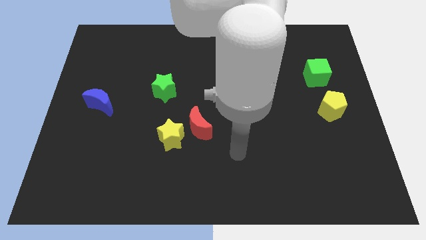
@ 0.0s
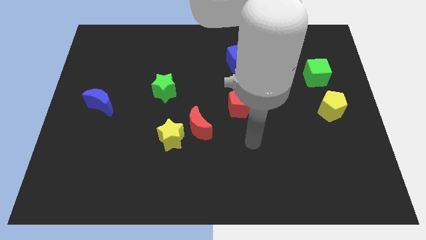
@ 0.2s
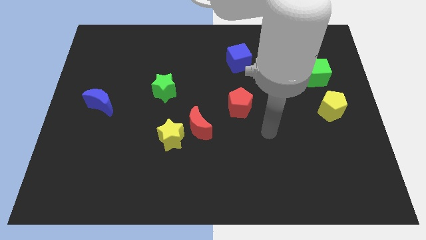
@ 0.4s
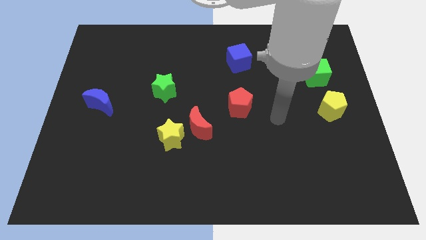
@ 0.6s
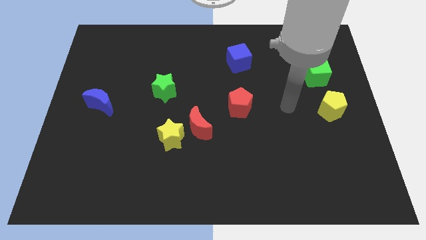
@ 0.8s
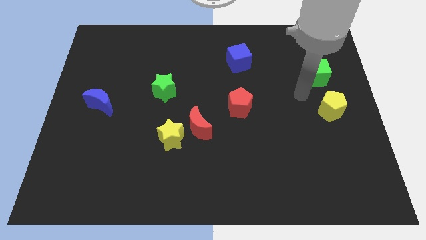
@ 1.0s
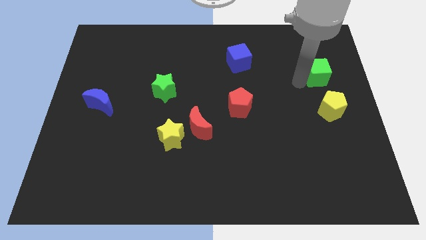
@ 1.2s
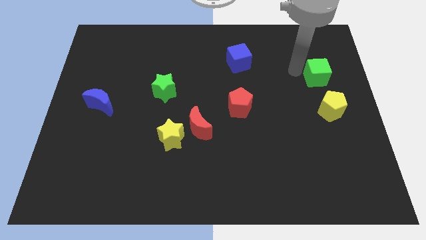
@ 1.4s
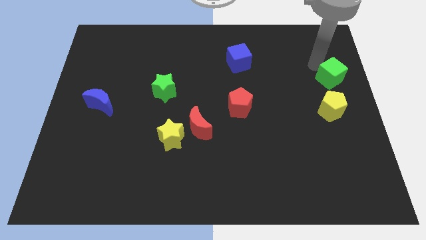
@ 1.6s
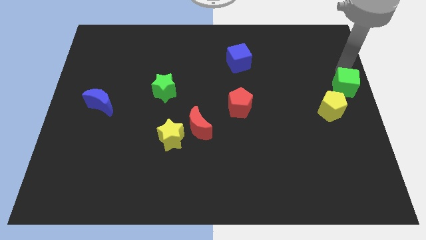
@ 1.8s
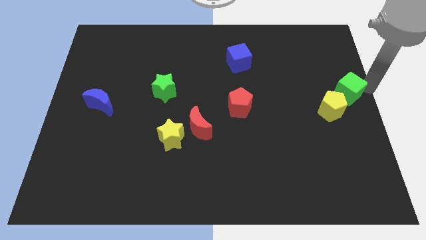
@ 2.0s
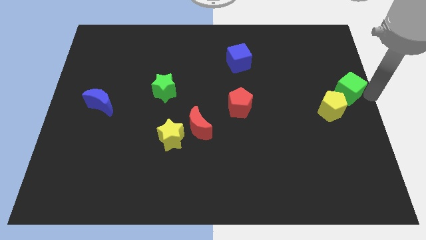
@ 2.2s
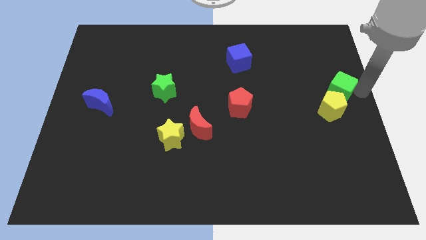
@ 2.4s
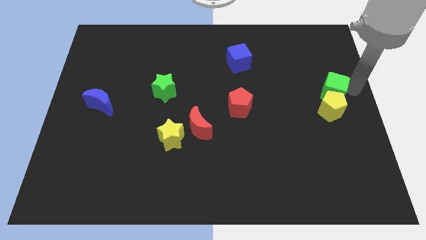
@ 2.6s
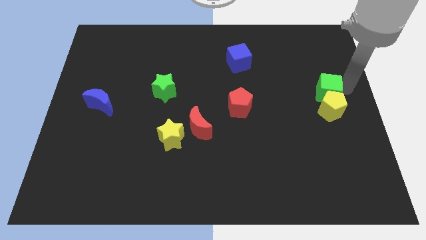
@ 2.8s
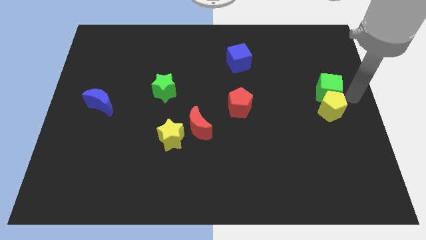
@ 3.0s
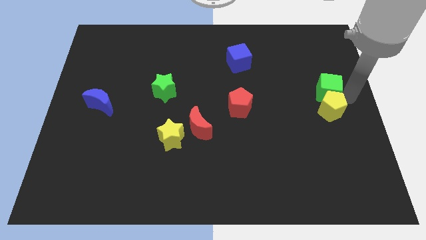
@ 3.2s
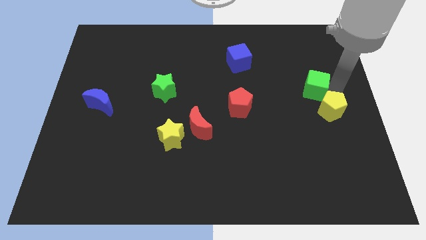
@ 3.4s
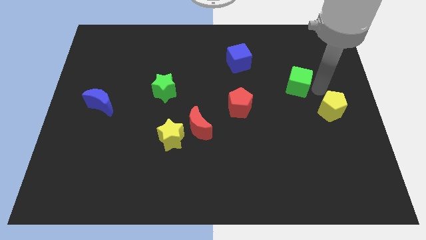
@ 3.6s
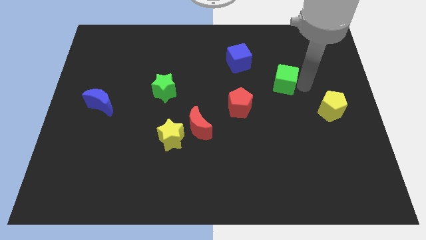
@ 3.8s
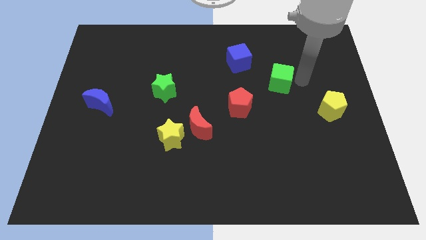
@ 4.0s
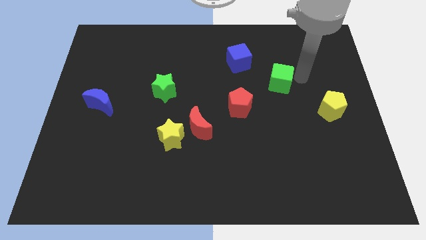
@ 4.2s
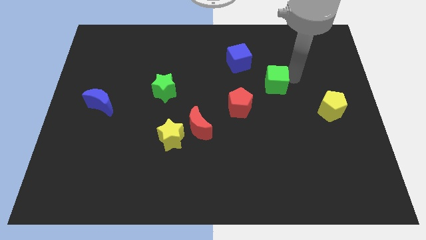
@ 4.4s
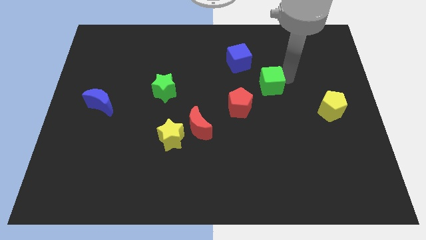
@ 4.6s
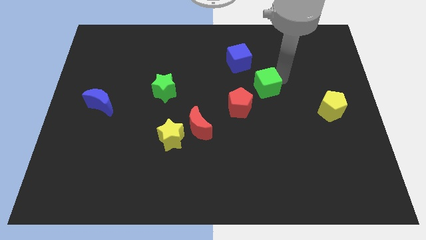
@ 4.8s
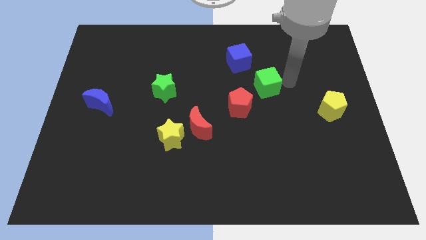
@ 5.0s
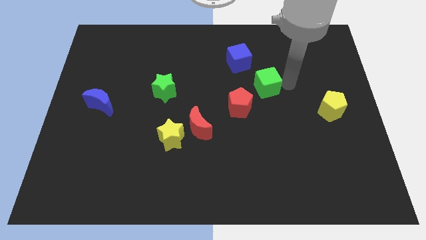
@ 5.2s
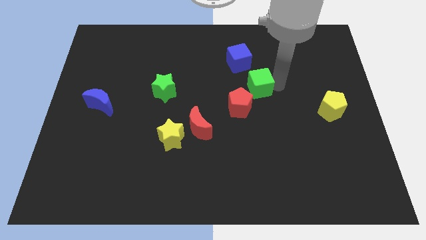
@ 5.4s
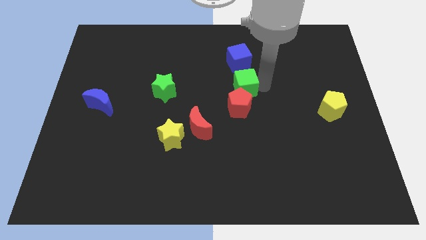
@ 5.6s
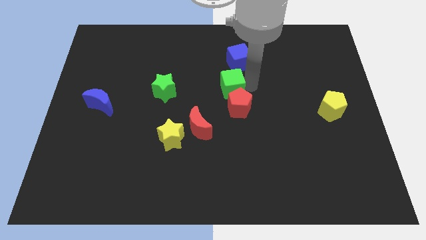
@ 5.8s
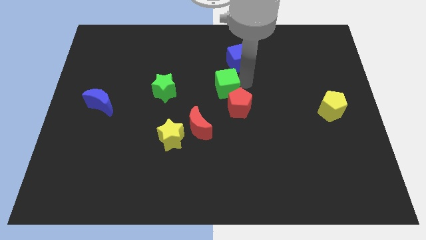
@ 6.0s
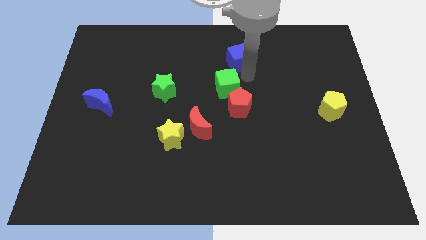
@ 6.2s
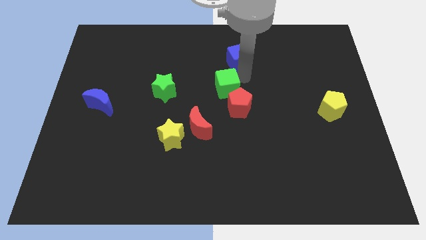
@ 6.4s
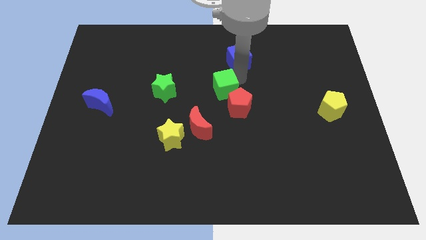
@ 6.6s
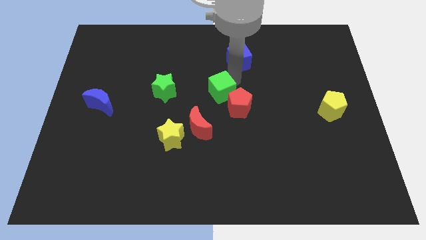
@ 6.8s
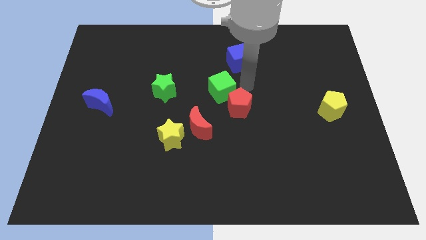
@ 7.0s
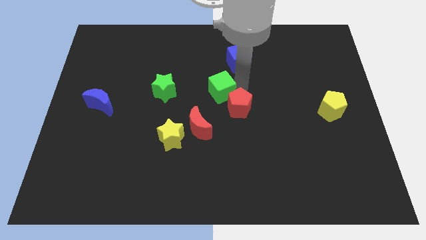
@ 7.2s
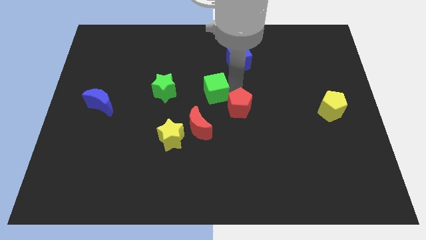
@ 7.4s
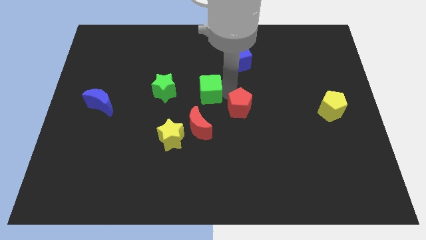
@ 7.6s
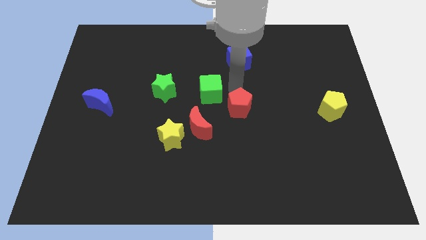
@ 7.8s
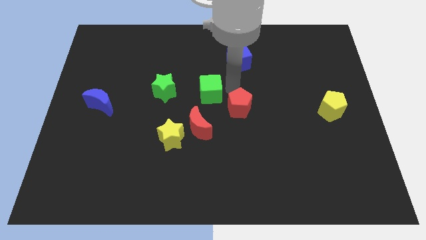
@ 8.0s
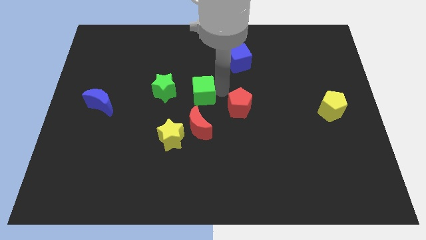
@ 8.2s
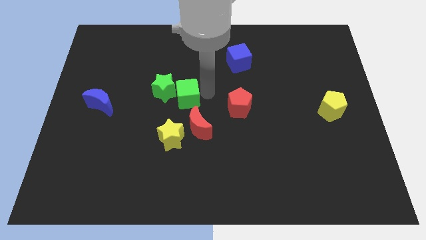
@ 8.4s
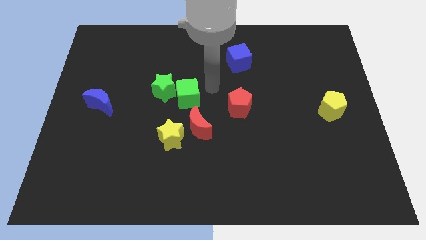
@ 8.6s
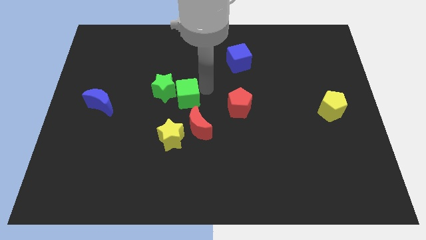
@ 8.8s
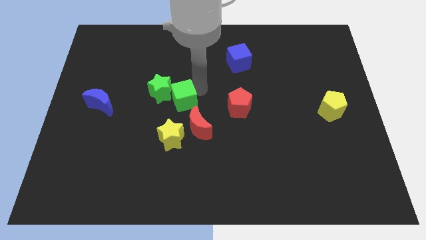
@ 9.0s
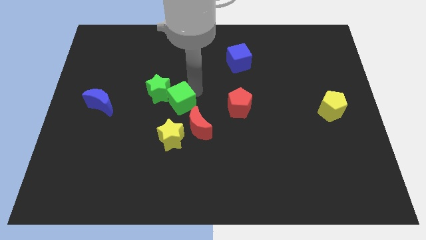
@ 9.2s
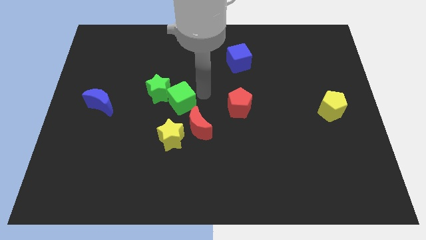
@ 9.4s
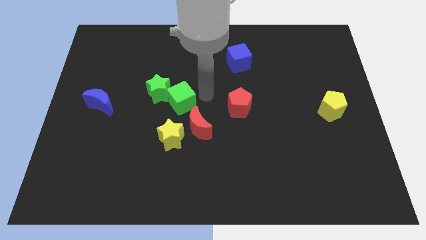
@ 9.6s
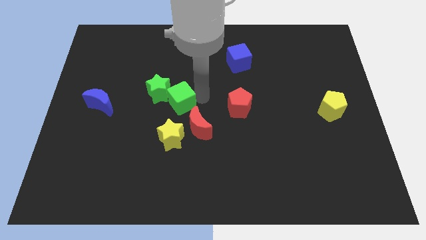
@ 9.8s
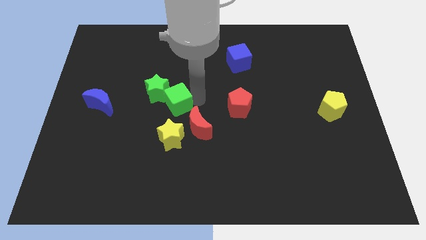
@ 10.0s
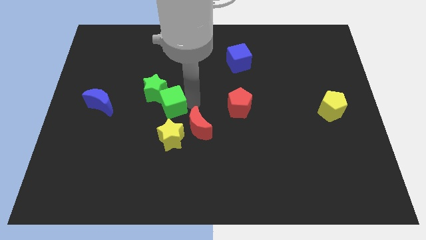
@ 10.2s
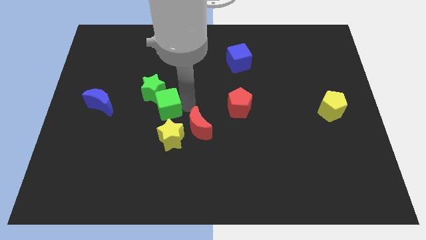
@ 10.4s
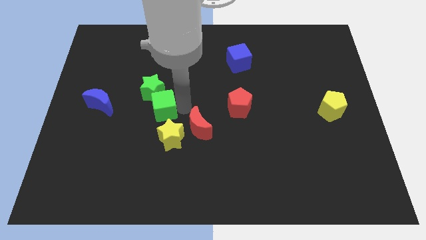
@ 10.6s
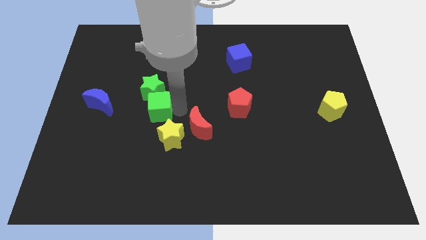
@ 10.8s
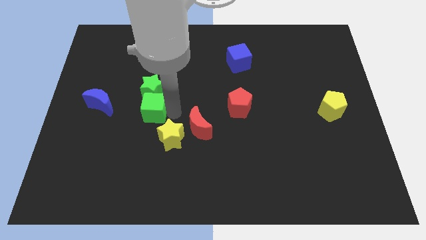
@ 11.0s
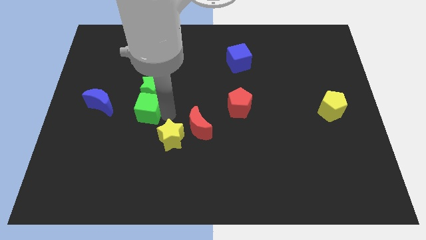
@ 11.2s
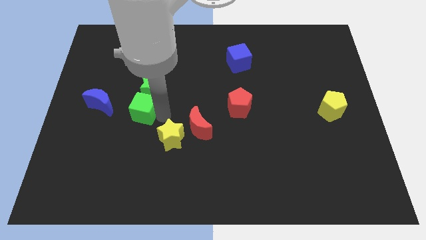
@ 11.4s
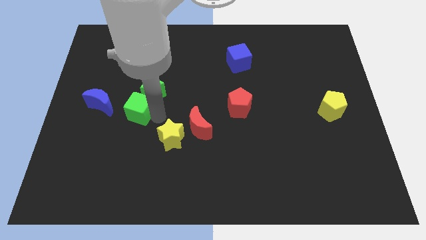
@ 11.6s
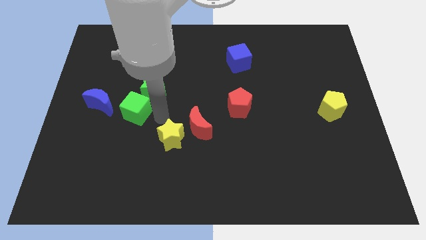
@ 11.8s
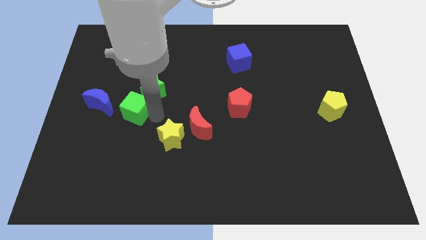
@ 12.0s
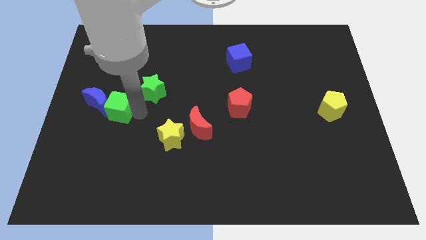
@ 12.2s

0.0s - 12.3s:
slide the green cube next to the blue moon
